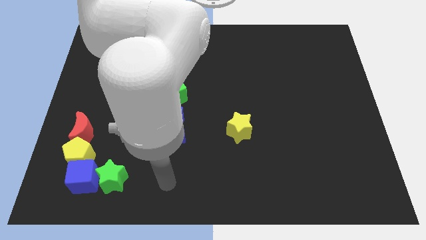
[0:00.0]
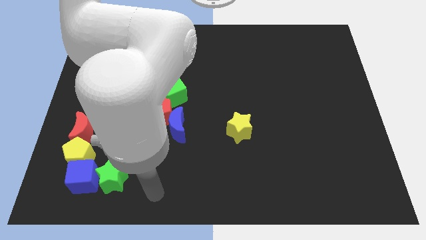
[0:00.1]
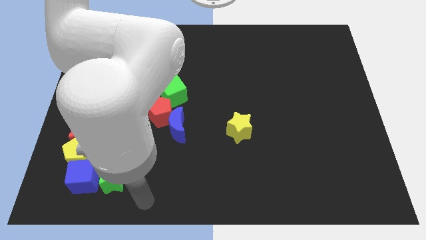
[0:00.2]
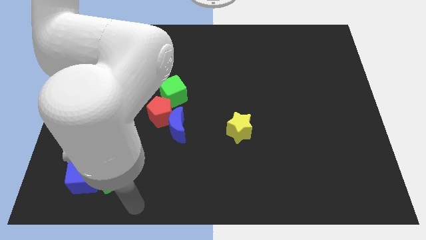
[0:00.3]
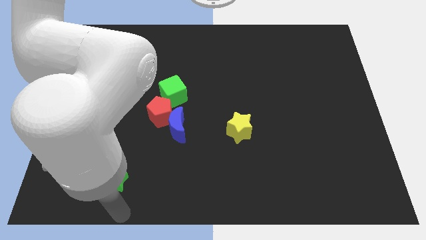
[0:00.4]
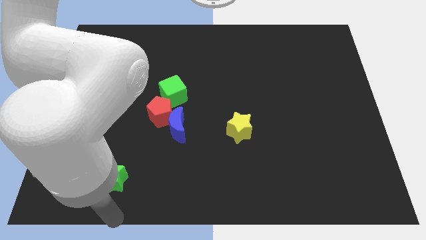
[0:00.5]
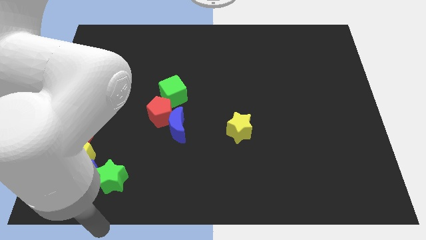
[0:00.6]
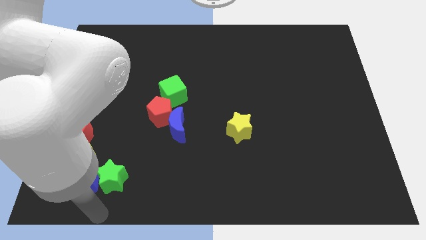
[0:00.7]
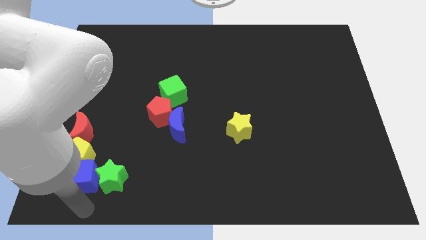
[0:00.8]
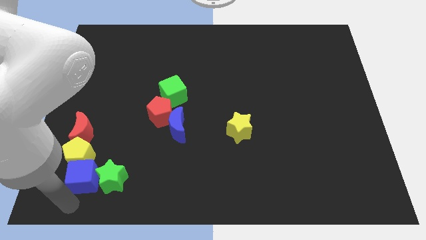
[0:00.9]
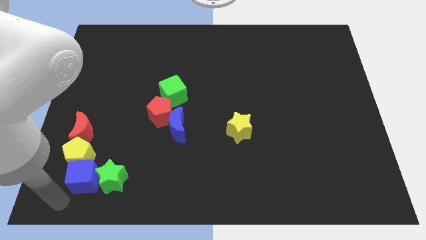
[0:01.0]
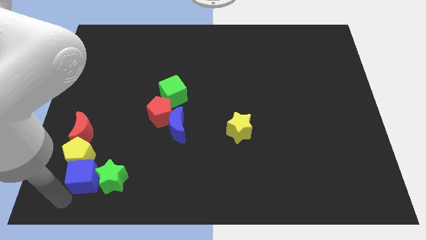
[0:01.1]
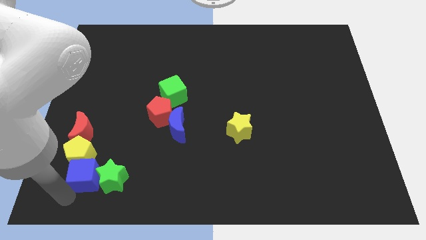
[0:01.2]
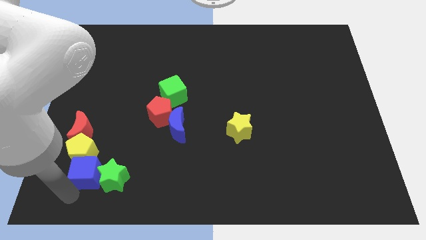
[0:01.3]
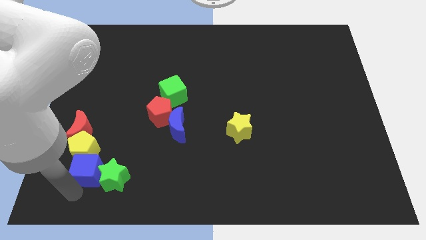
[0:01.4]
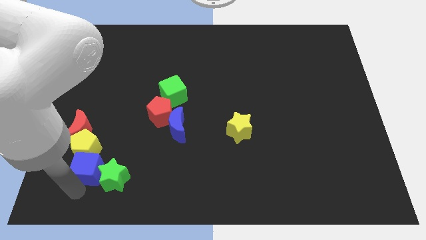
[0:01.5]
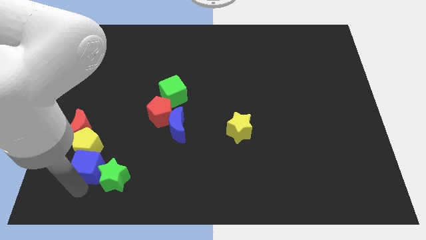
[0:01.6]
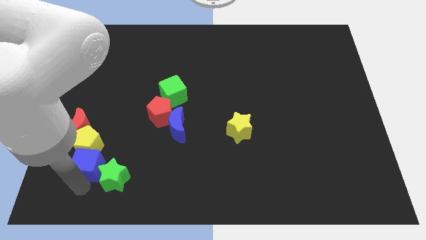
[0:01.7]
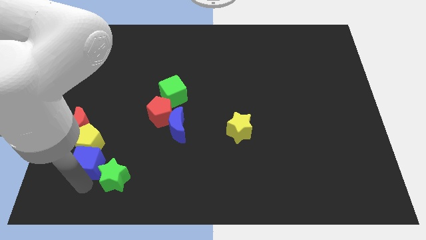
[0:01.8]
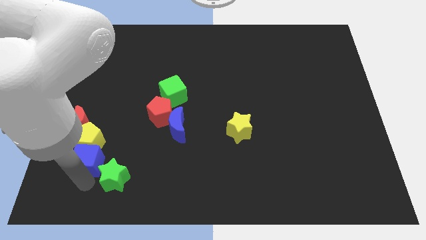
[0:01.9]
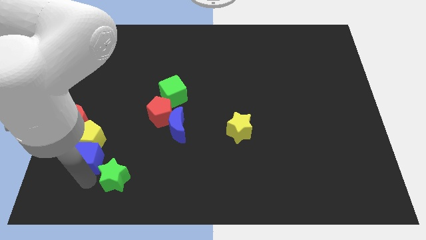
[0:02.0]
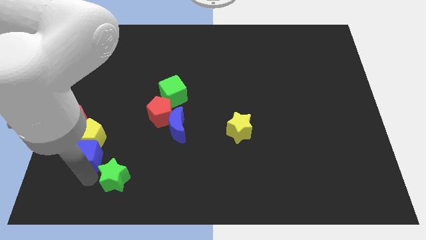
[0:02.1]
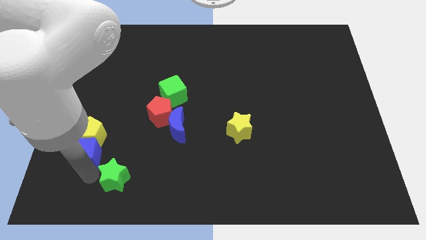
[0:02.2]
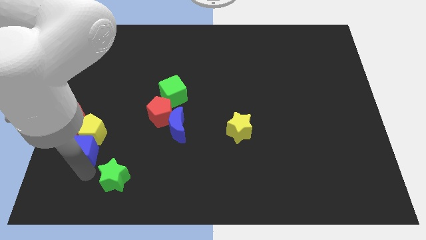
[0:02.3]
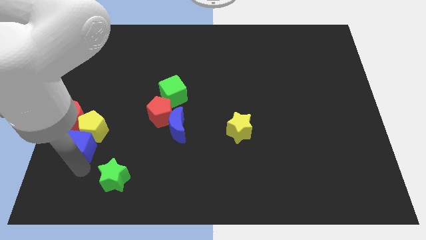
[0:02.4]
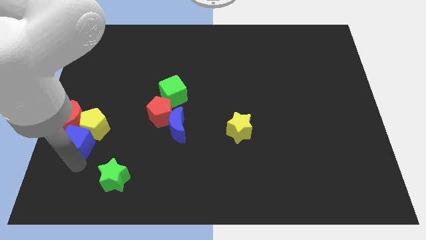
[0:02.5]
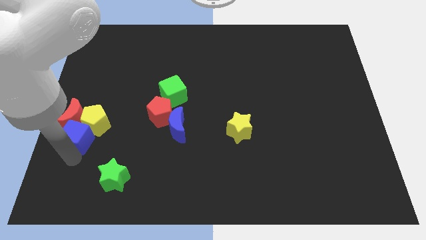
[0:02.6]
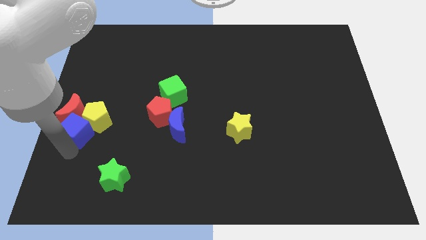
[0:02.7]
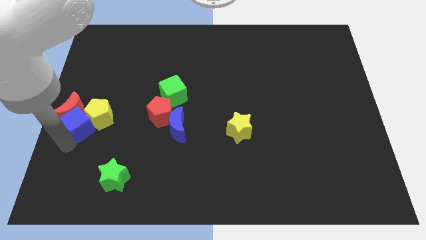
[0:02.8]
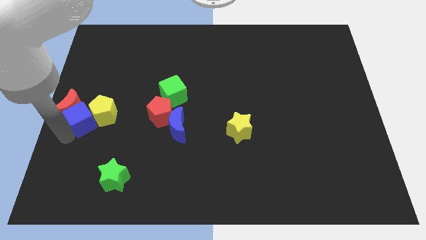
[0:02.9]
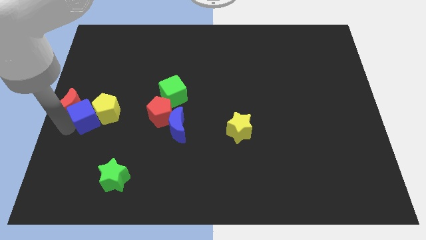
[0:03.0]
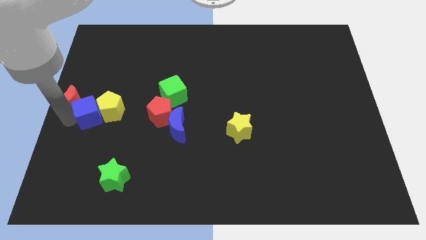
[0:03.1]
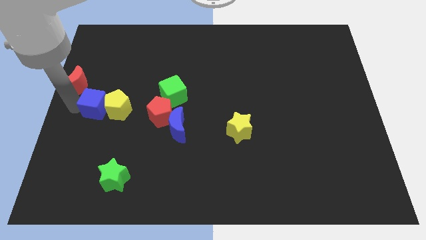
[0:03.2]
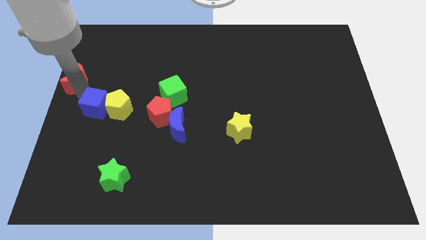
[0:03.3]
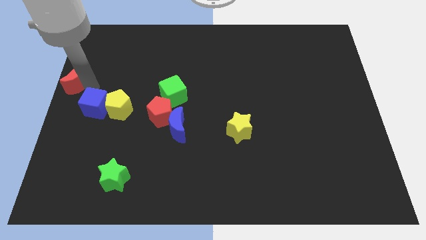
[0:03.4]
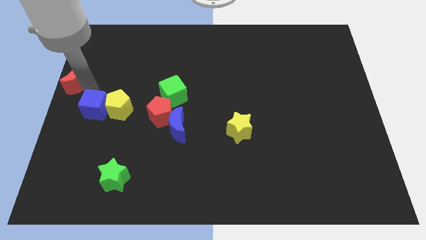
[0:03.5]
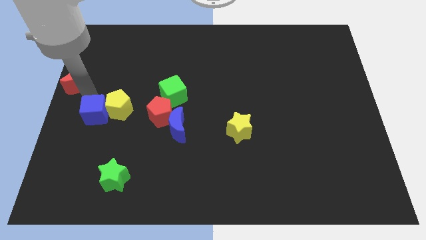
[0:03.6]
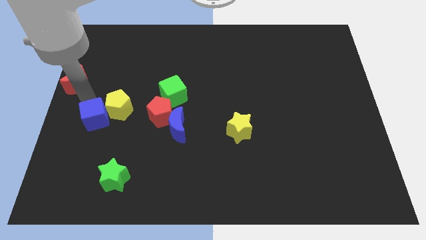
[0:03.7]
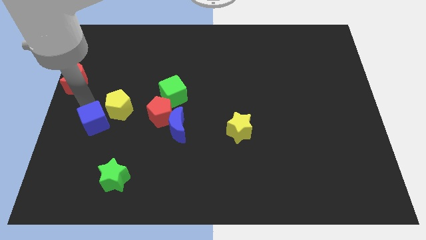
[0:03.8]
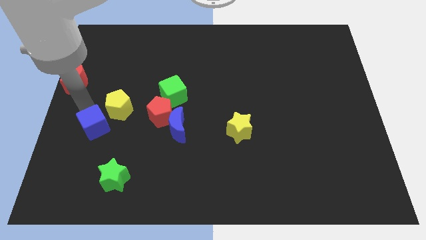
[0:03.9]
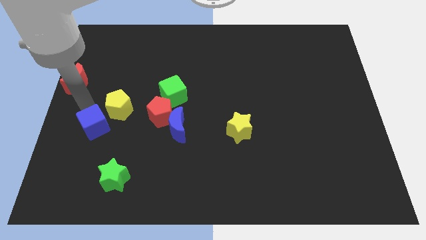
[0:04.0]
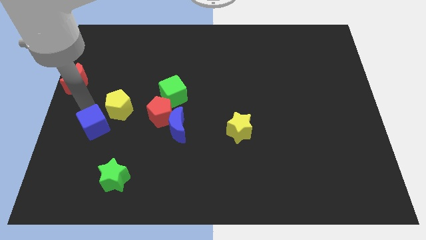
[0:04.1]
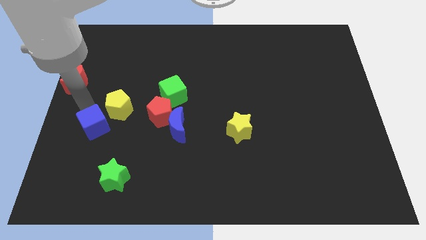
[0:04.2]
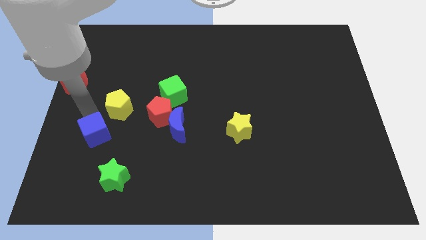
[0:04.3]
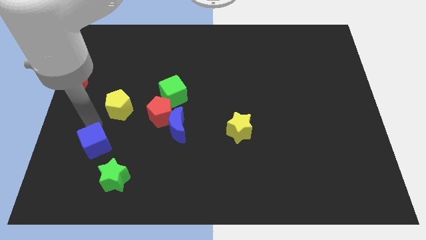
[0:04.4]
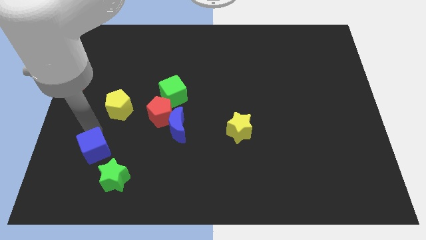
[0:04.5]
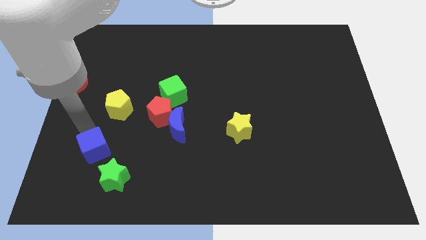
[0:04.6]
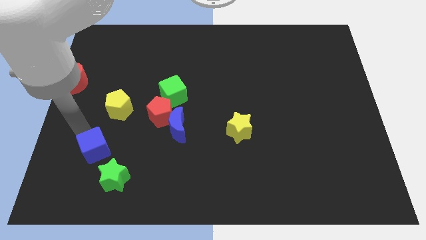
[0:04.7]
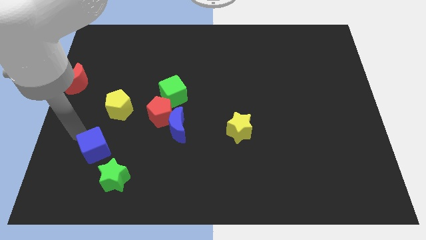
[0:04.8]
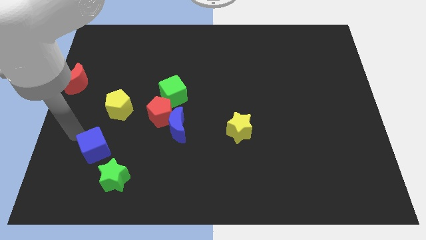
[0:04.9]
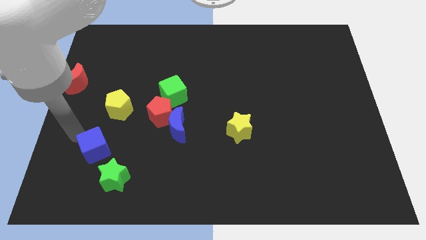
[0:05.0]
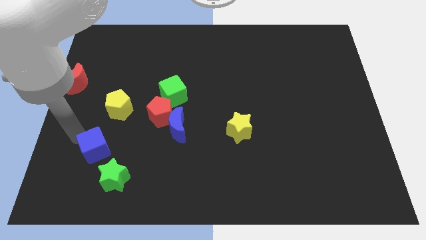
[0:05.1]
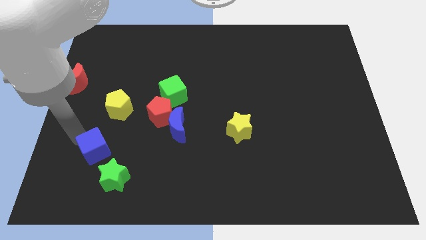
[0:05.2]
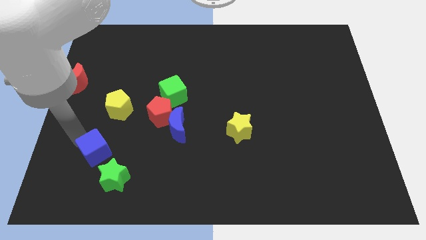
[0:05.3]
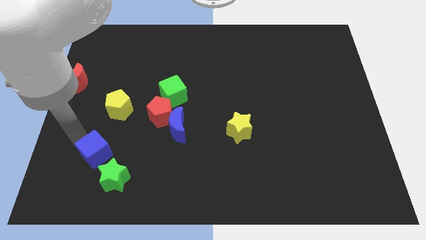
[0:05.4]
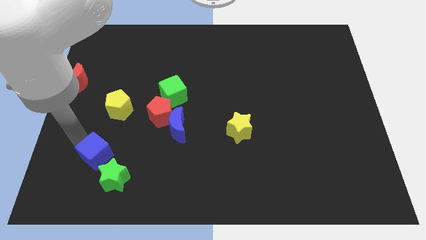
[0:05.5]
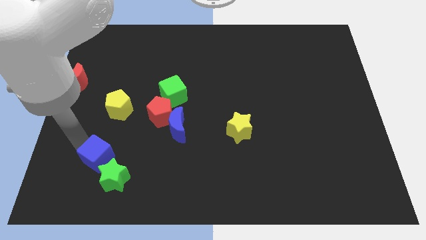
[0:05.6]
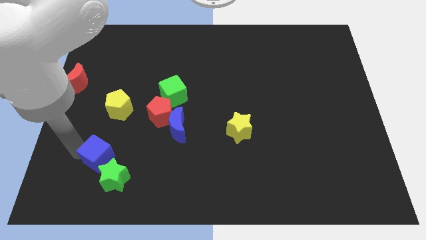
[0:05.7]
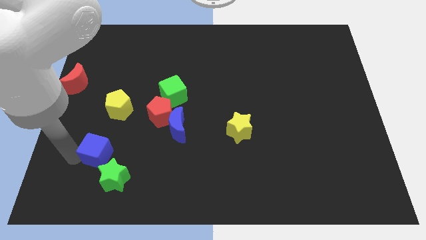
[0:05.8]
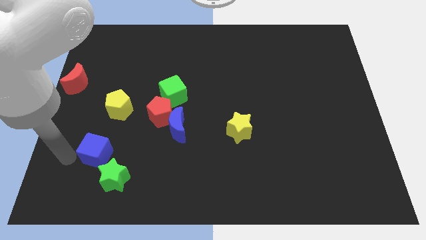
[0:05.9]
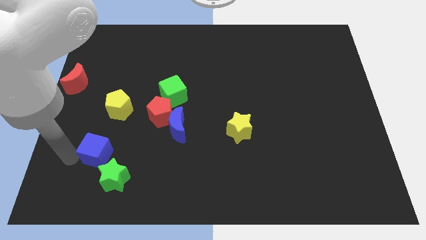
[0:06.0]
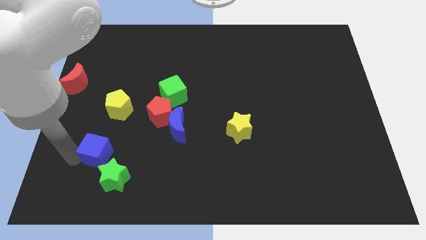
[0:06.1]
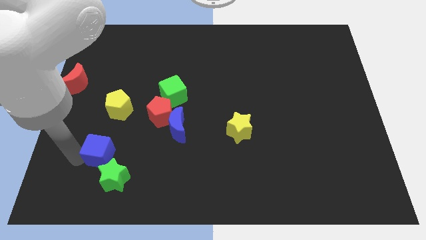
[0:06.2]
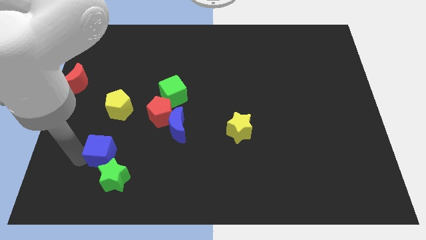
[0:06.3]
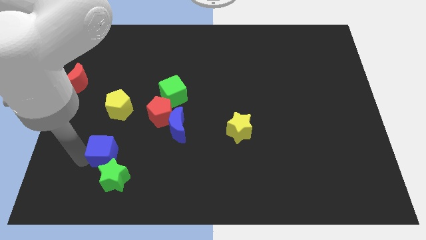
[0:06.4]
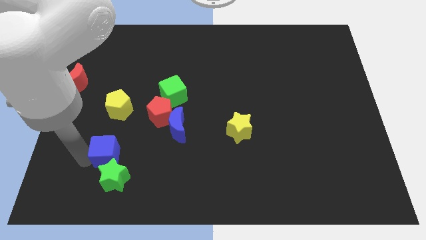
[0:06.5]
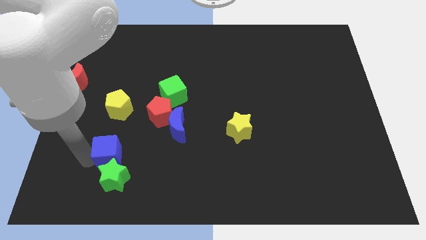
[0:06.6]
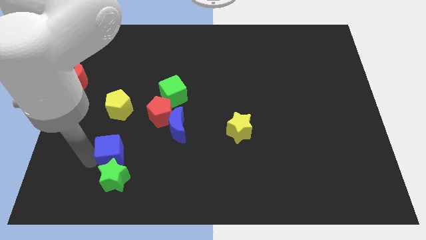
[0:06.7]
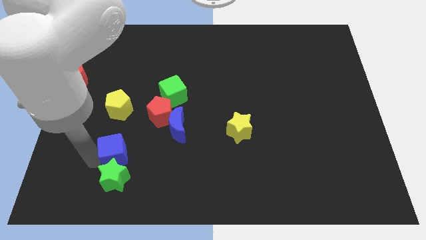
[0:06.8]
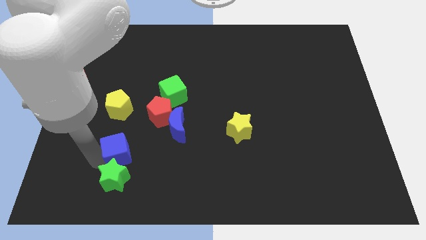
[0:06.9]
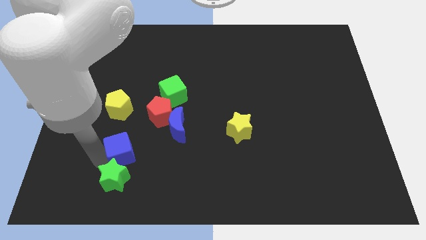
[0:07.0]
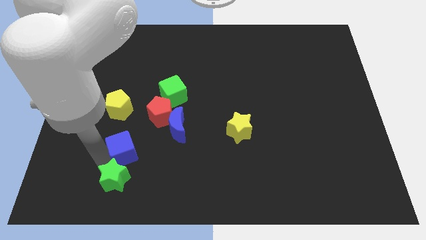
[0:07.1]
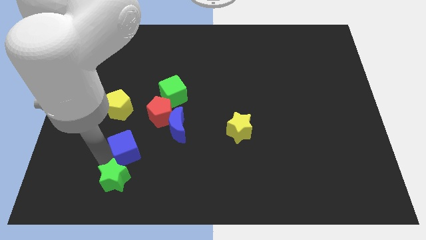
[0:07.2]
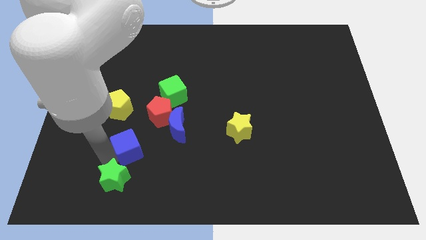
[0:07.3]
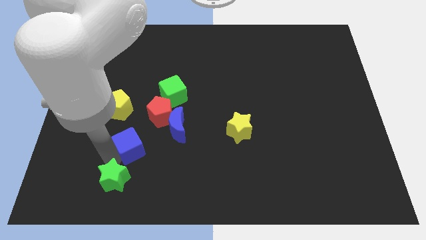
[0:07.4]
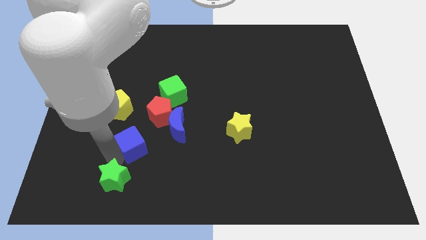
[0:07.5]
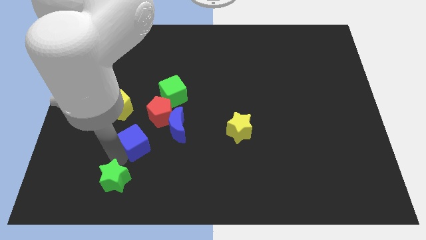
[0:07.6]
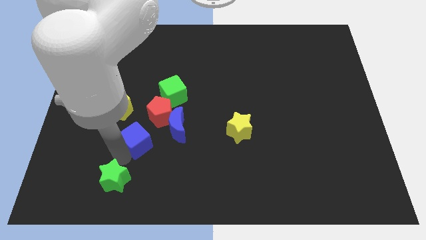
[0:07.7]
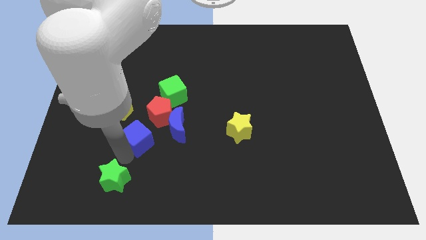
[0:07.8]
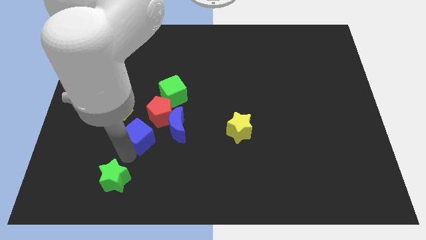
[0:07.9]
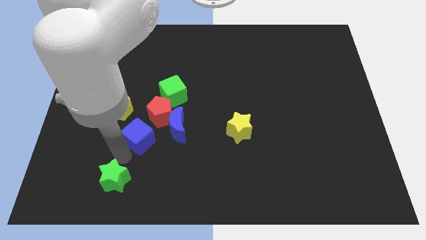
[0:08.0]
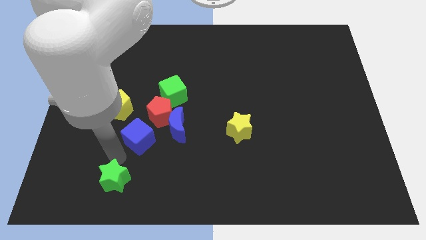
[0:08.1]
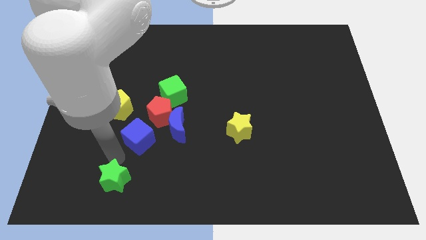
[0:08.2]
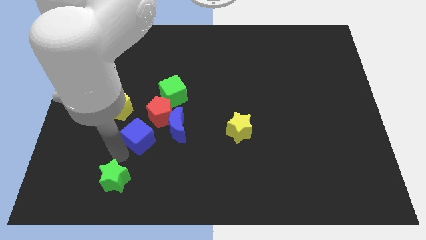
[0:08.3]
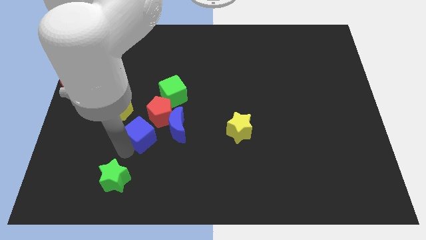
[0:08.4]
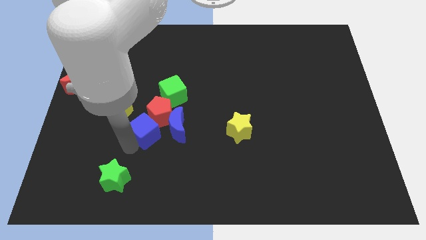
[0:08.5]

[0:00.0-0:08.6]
put the blue cube to the red pentagon
